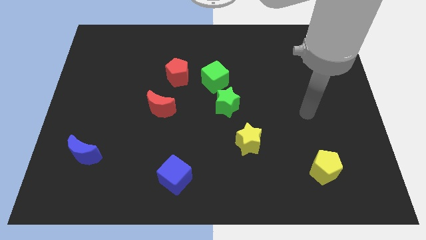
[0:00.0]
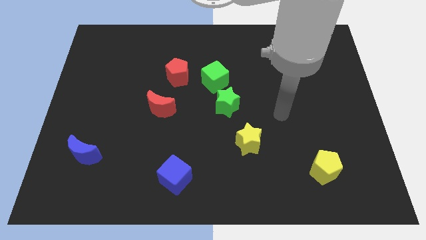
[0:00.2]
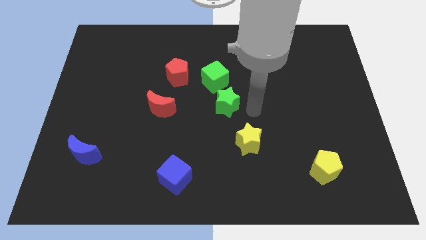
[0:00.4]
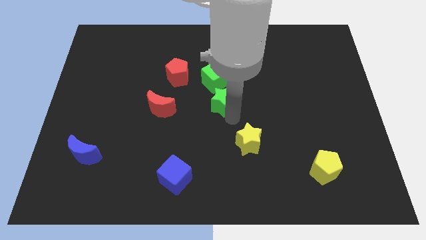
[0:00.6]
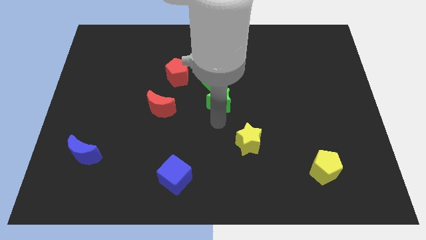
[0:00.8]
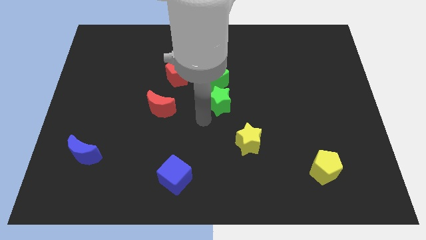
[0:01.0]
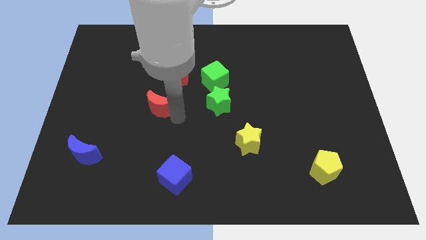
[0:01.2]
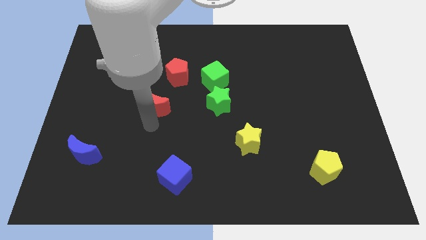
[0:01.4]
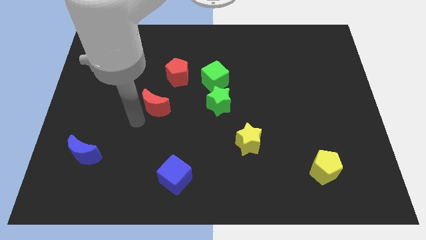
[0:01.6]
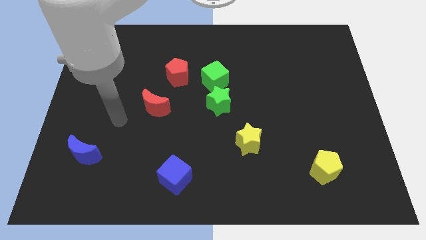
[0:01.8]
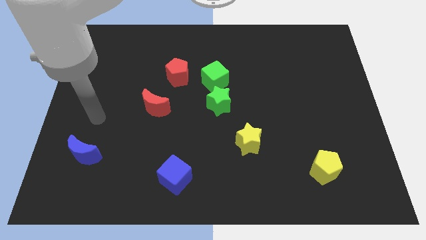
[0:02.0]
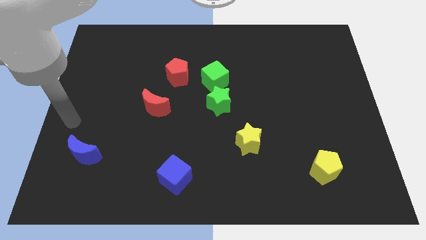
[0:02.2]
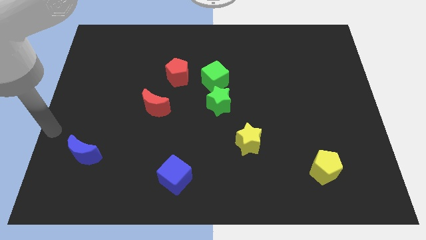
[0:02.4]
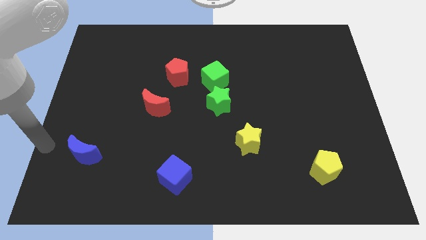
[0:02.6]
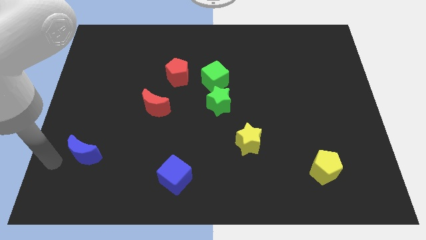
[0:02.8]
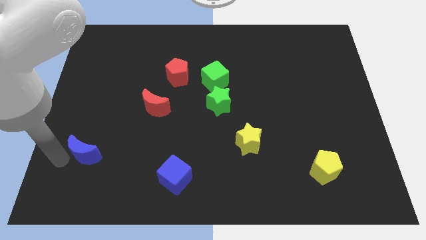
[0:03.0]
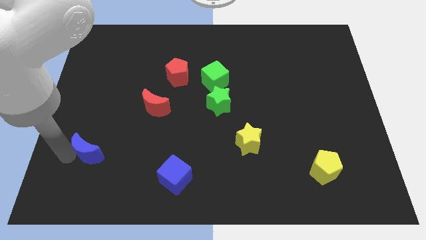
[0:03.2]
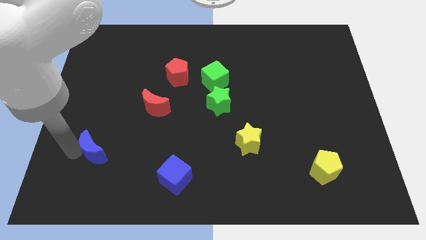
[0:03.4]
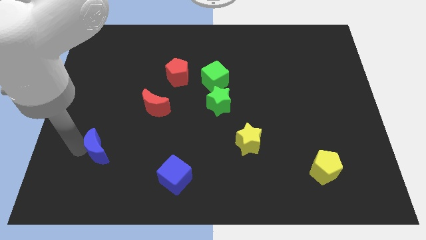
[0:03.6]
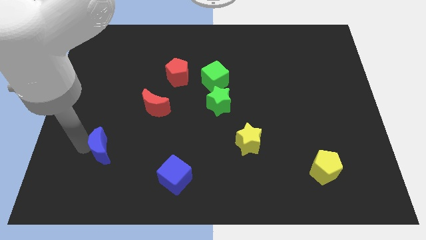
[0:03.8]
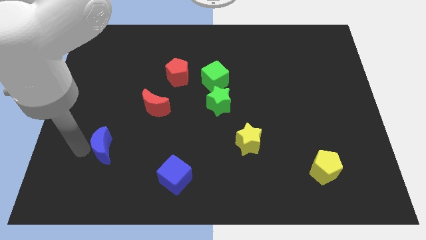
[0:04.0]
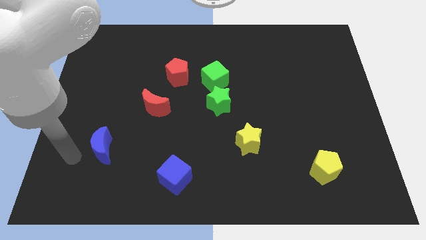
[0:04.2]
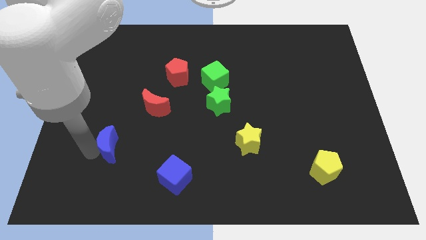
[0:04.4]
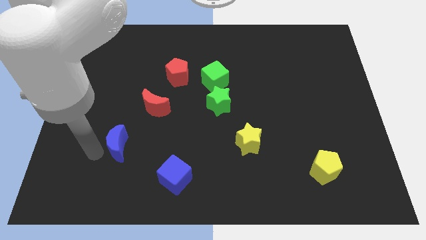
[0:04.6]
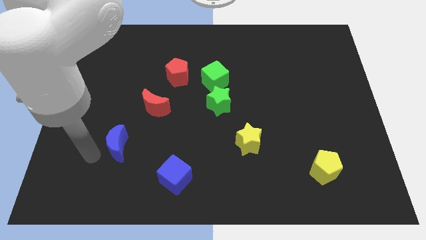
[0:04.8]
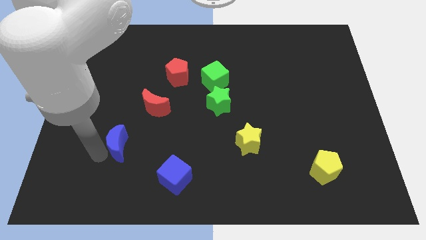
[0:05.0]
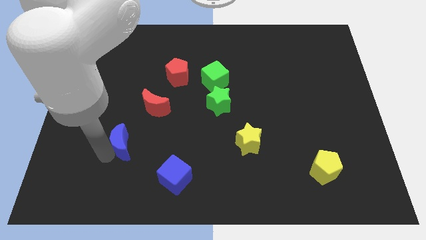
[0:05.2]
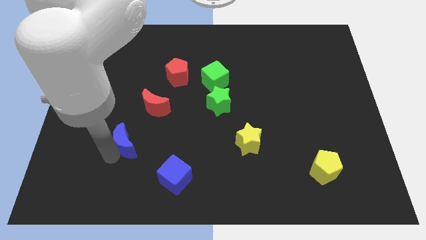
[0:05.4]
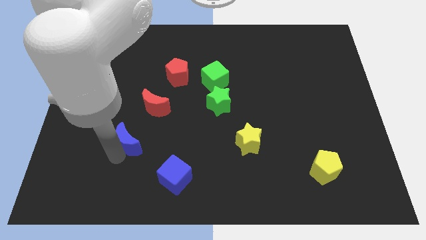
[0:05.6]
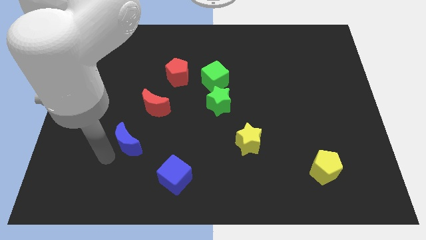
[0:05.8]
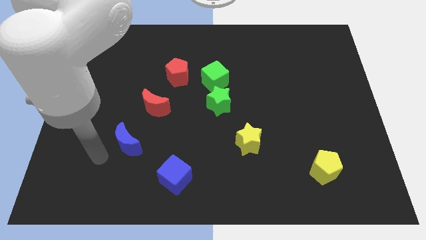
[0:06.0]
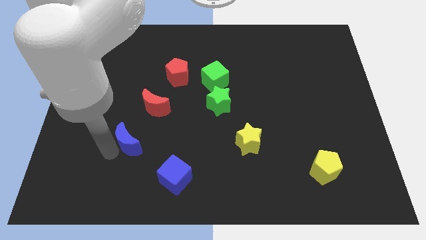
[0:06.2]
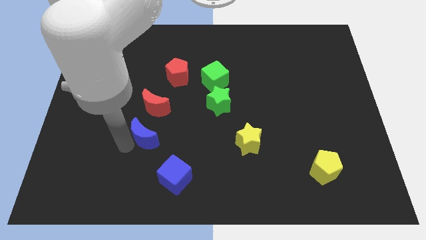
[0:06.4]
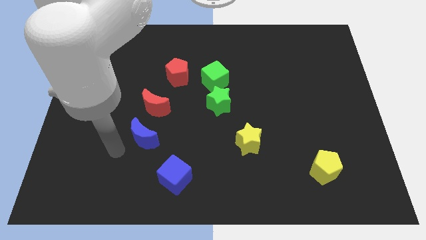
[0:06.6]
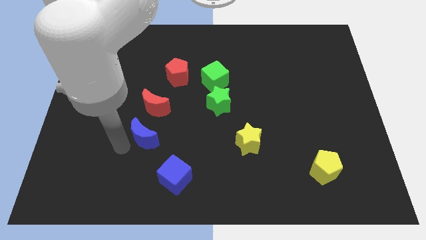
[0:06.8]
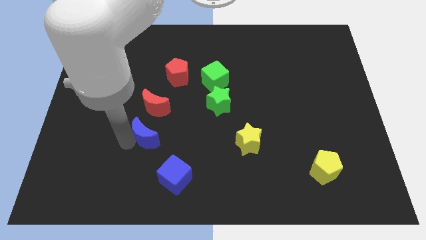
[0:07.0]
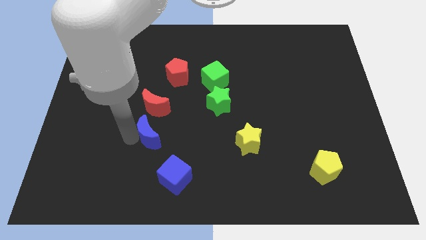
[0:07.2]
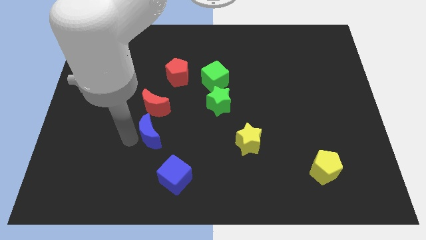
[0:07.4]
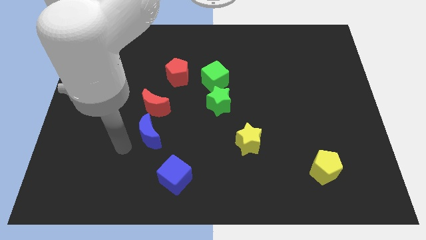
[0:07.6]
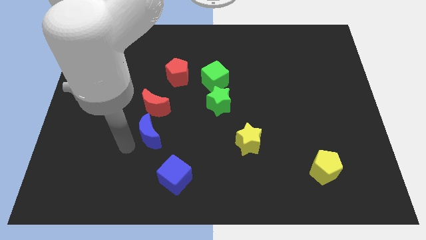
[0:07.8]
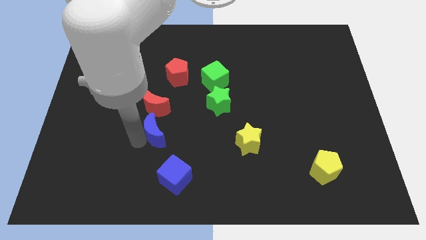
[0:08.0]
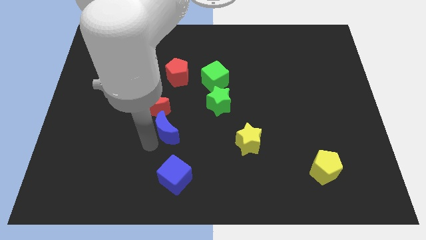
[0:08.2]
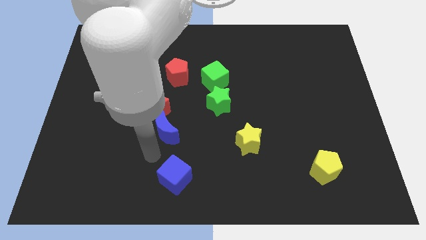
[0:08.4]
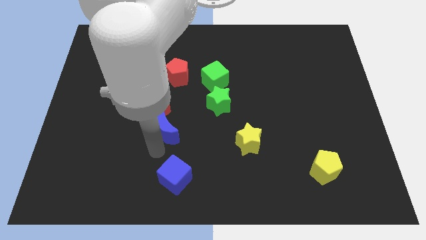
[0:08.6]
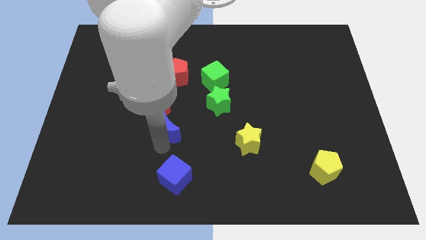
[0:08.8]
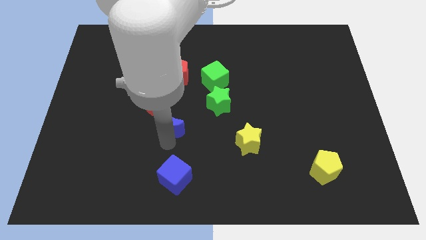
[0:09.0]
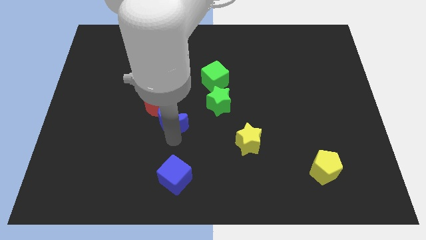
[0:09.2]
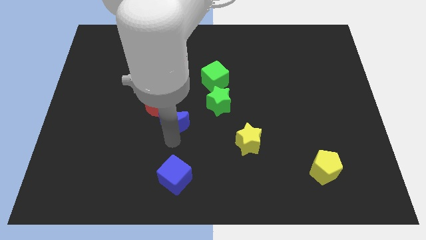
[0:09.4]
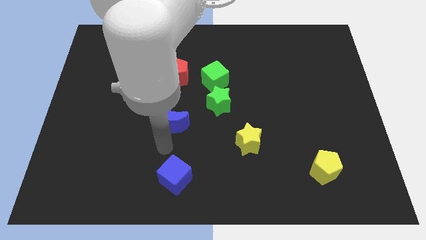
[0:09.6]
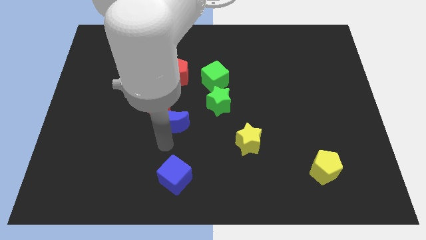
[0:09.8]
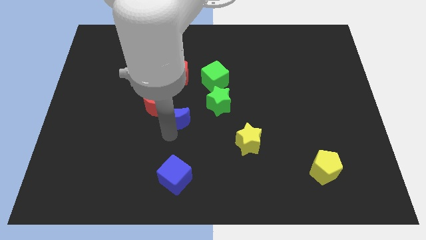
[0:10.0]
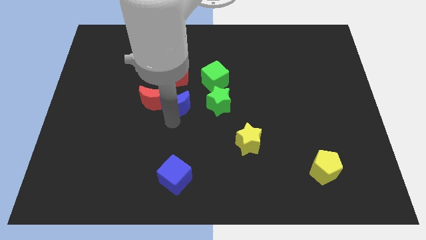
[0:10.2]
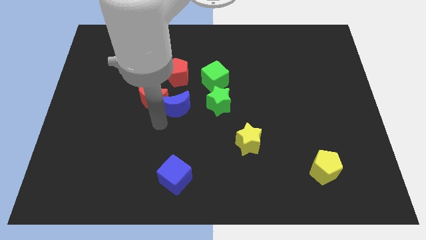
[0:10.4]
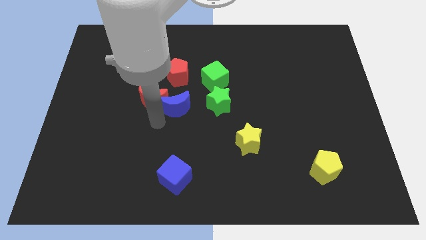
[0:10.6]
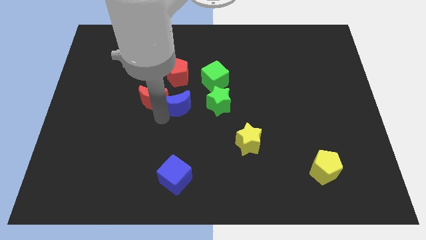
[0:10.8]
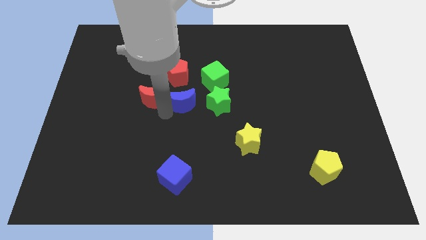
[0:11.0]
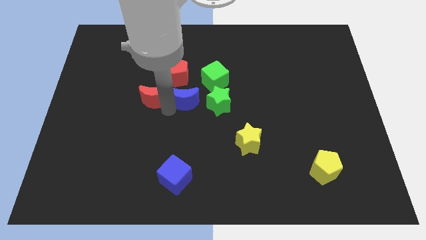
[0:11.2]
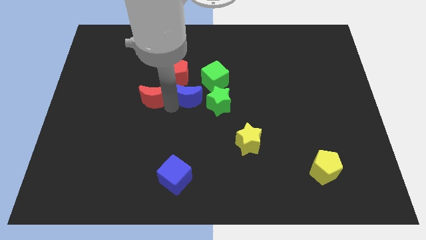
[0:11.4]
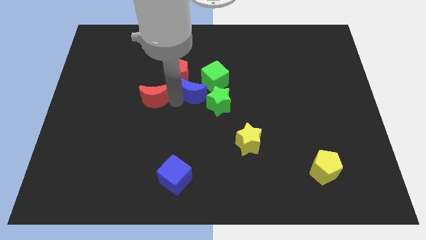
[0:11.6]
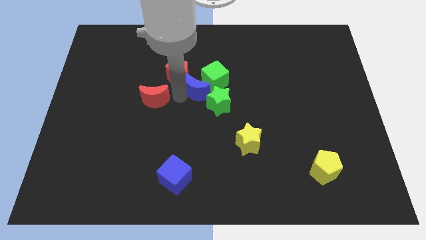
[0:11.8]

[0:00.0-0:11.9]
push the blue moon next to the green cube

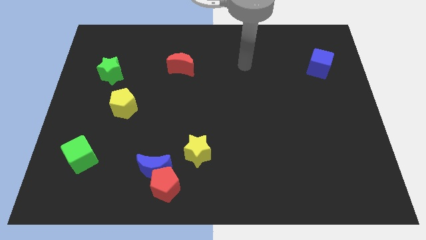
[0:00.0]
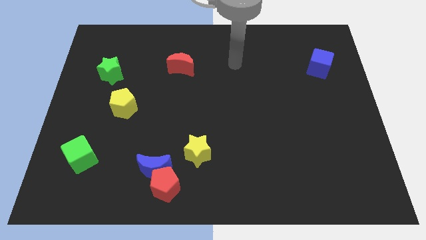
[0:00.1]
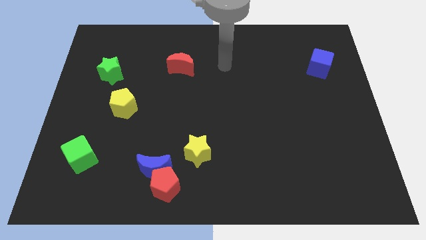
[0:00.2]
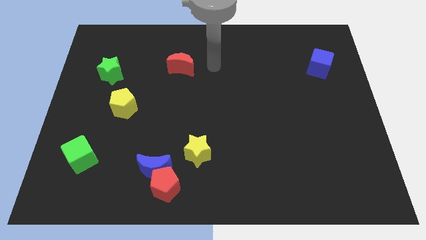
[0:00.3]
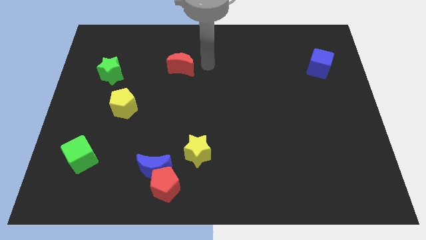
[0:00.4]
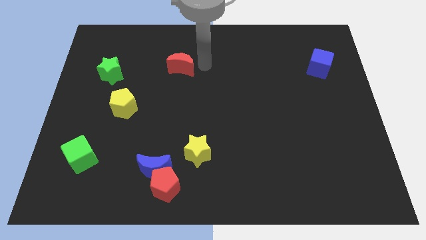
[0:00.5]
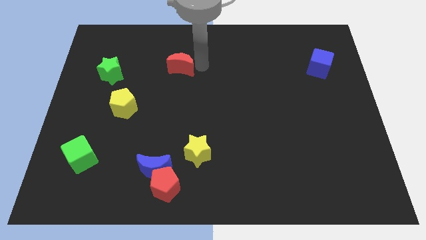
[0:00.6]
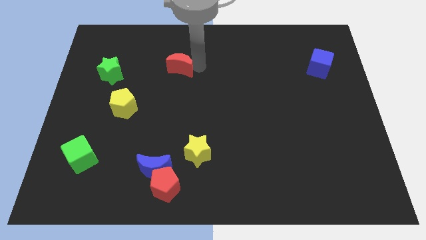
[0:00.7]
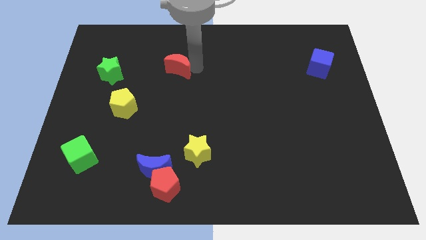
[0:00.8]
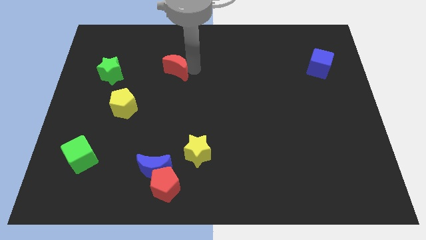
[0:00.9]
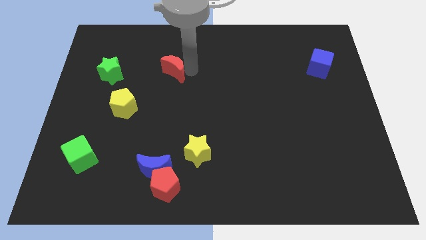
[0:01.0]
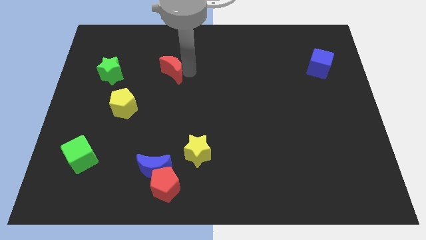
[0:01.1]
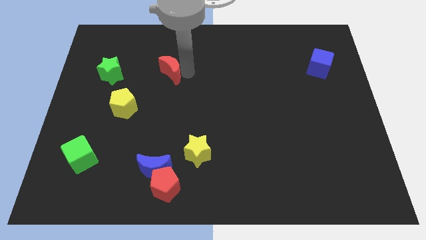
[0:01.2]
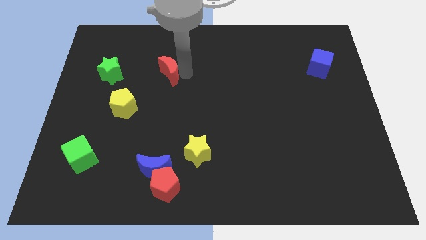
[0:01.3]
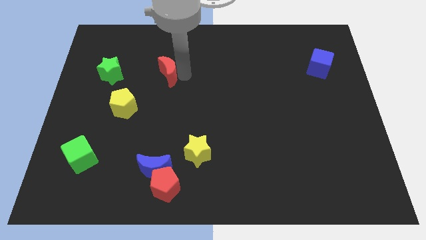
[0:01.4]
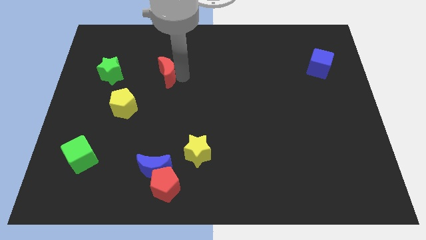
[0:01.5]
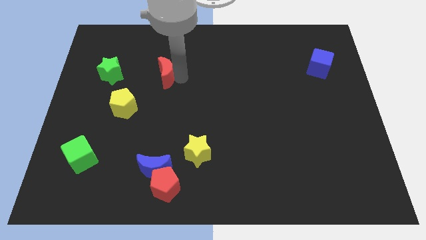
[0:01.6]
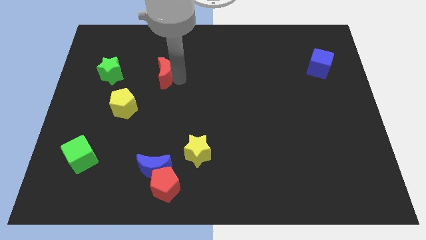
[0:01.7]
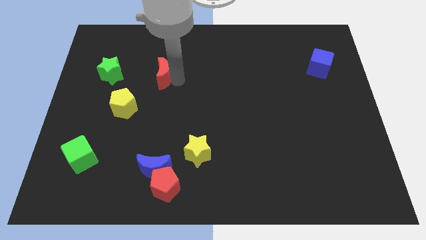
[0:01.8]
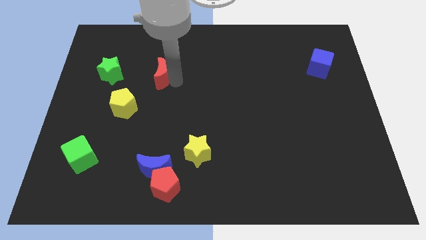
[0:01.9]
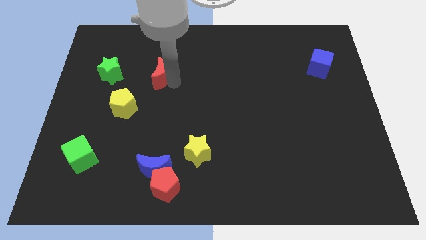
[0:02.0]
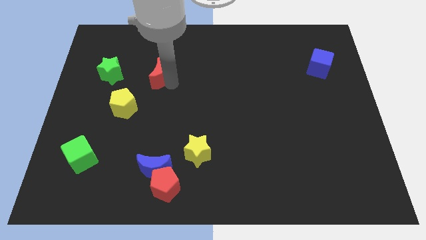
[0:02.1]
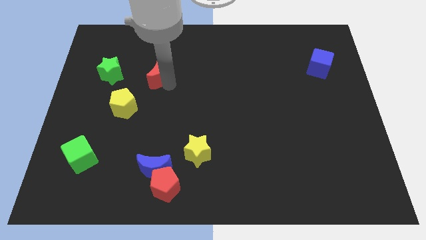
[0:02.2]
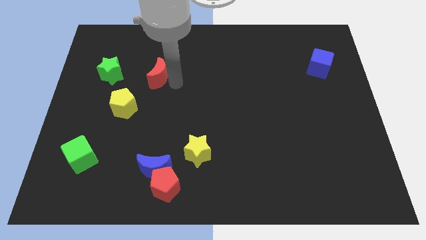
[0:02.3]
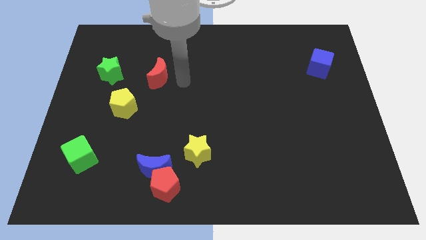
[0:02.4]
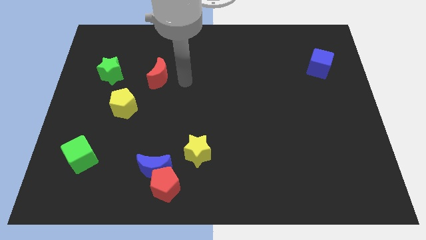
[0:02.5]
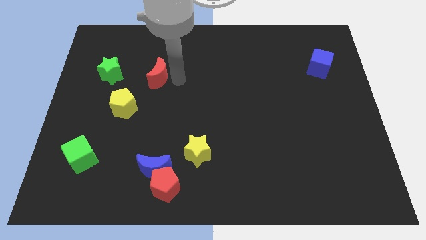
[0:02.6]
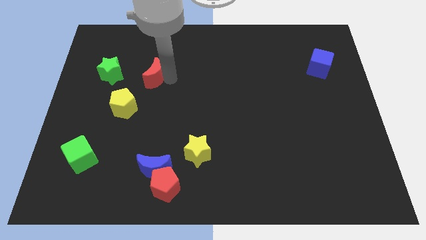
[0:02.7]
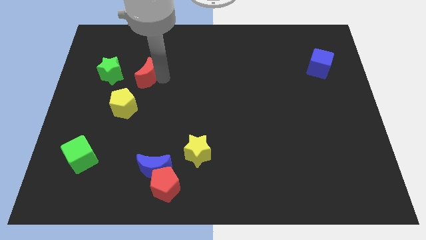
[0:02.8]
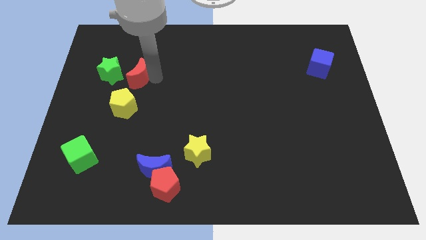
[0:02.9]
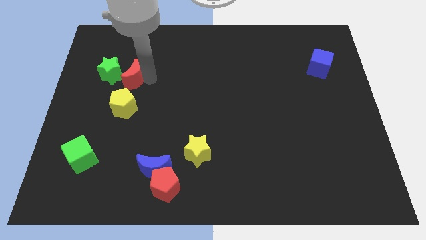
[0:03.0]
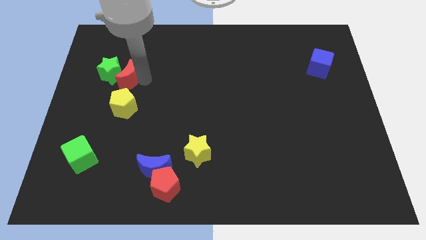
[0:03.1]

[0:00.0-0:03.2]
push the red moon to the green star
